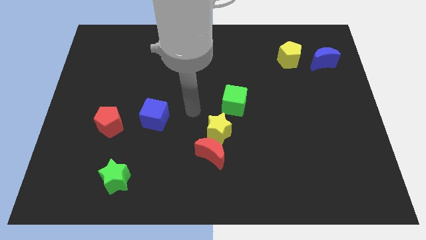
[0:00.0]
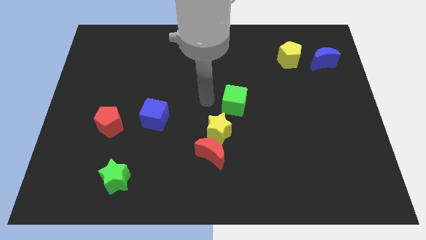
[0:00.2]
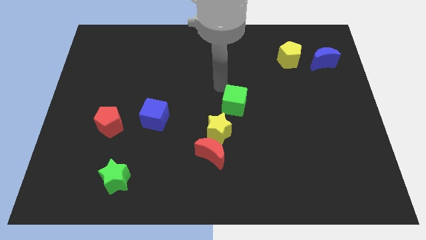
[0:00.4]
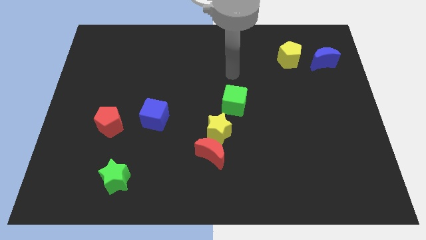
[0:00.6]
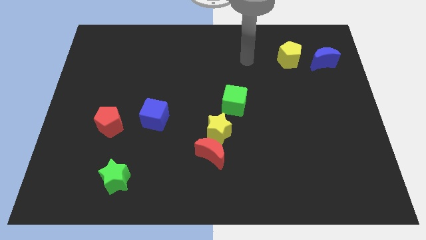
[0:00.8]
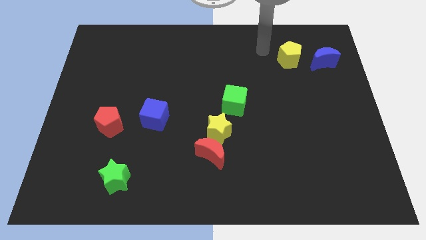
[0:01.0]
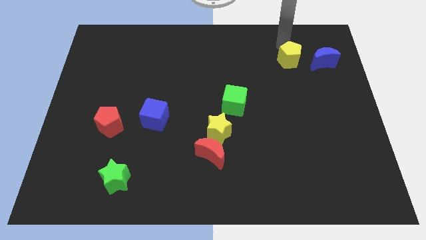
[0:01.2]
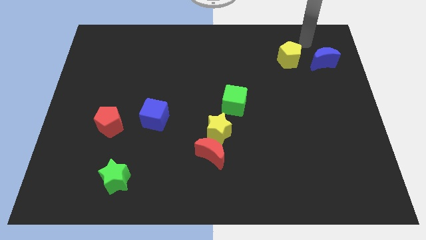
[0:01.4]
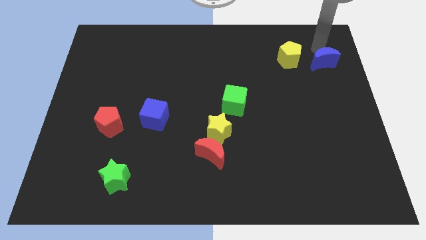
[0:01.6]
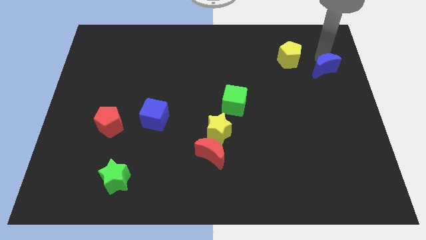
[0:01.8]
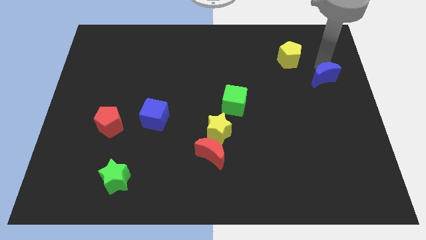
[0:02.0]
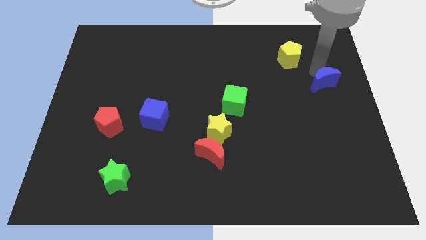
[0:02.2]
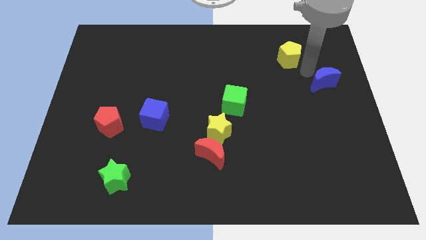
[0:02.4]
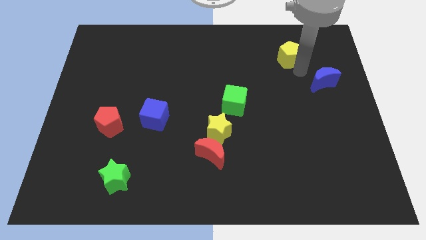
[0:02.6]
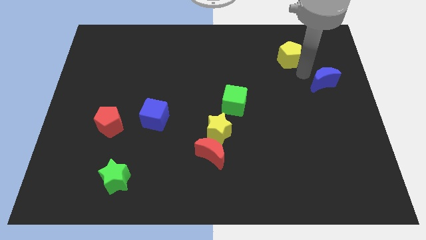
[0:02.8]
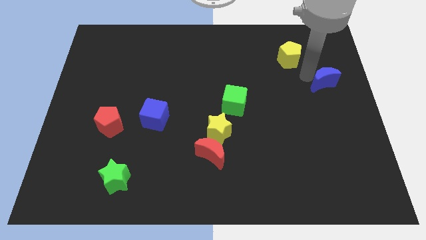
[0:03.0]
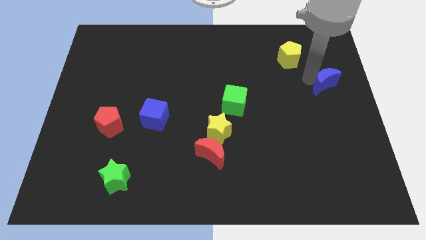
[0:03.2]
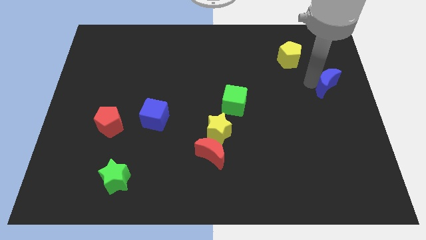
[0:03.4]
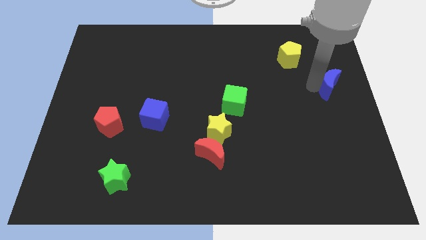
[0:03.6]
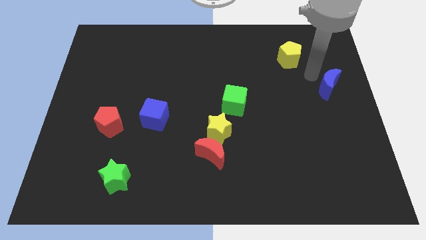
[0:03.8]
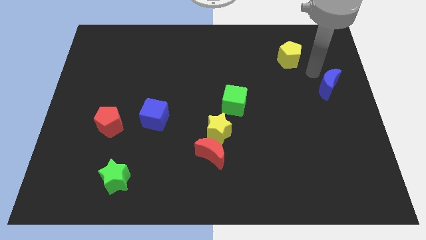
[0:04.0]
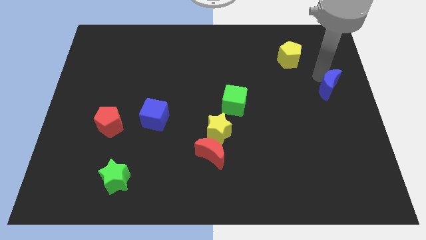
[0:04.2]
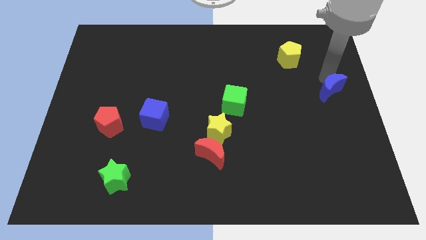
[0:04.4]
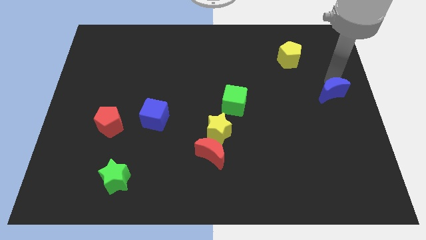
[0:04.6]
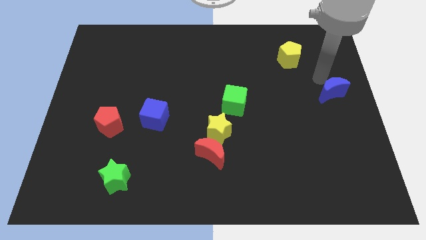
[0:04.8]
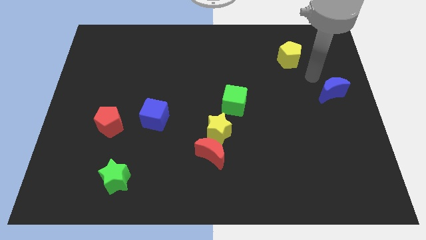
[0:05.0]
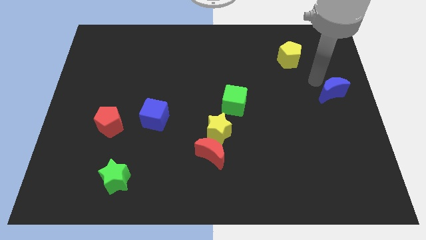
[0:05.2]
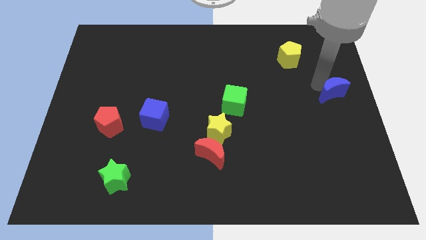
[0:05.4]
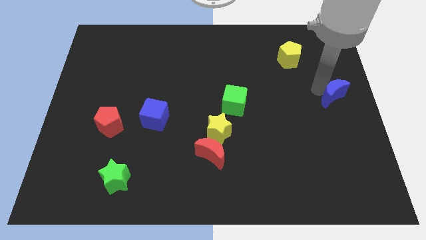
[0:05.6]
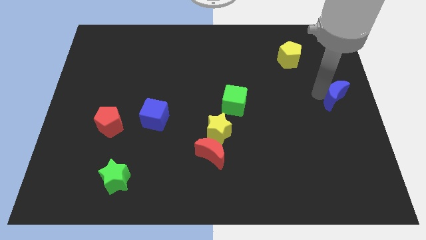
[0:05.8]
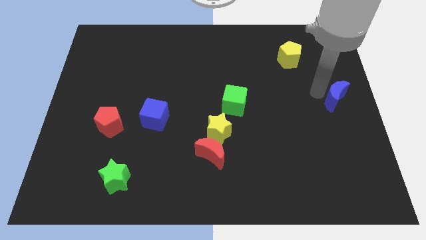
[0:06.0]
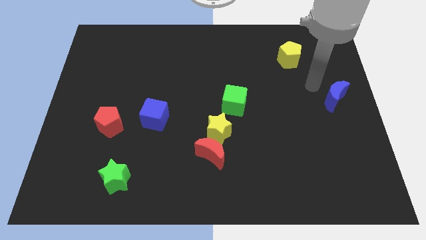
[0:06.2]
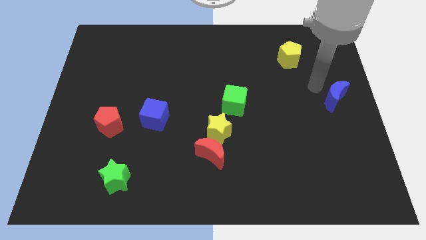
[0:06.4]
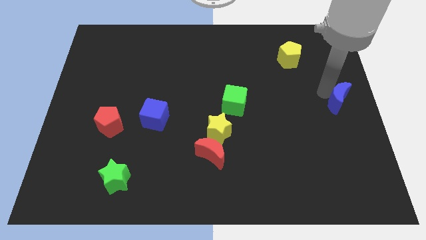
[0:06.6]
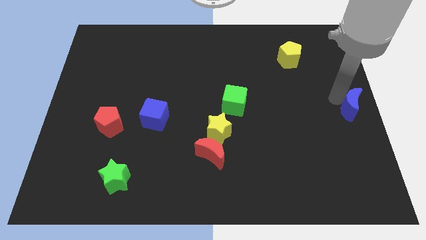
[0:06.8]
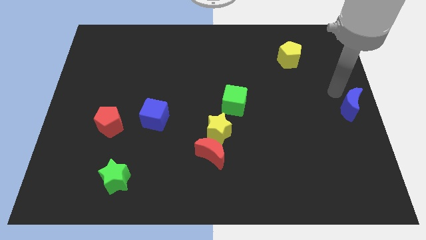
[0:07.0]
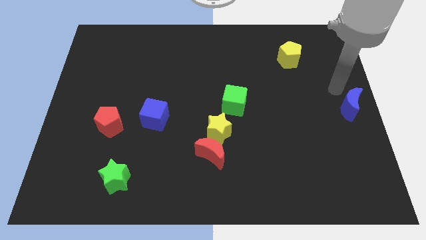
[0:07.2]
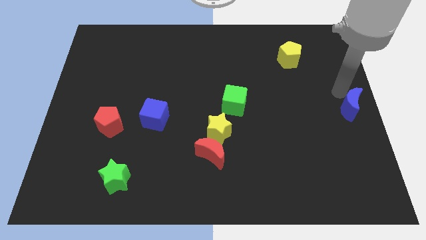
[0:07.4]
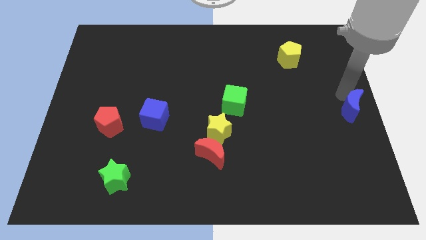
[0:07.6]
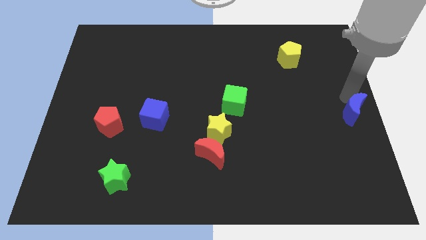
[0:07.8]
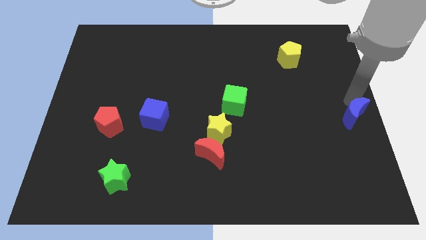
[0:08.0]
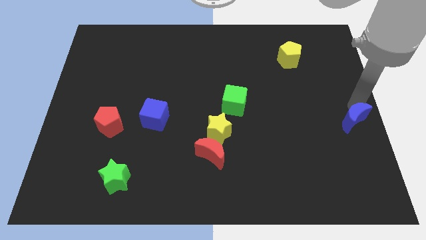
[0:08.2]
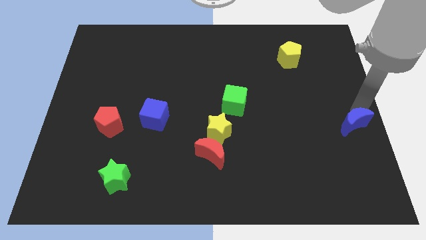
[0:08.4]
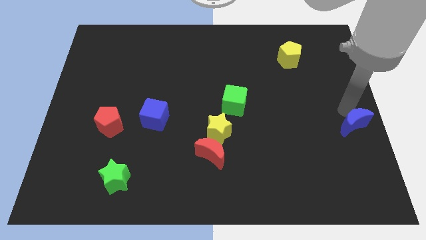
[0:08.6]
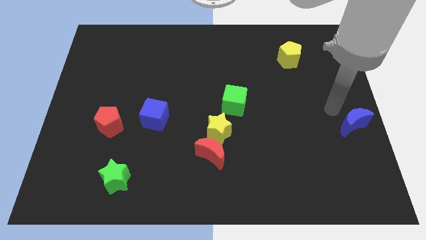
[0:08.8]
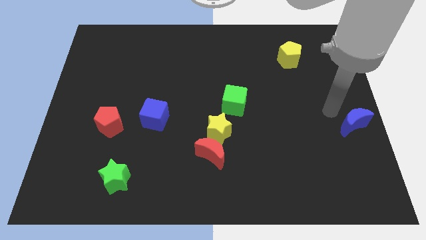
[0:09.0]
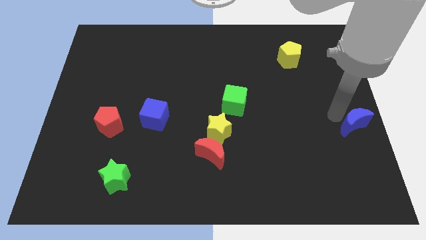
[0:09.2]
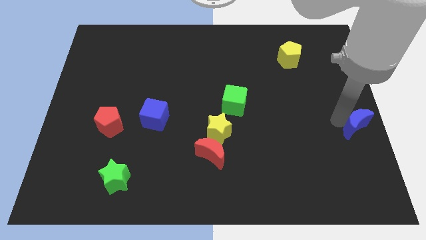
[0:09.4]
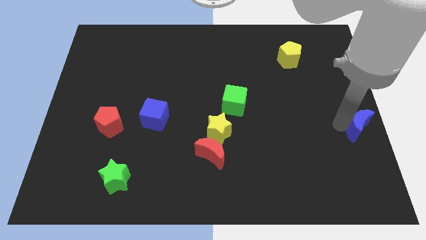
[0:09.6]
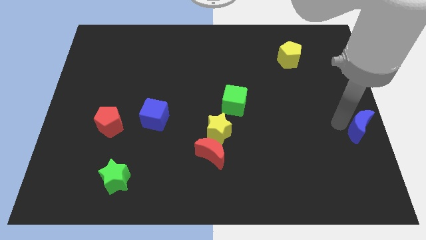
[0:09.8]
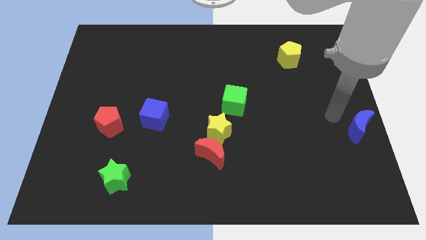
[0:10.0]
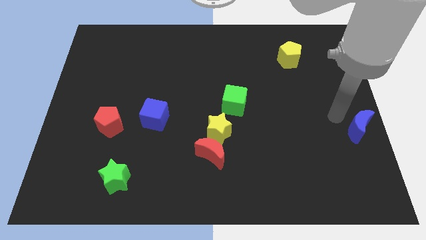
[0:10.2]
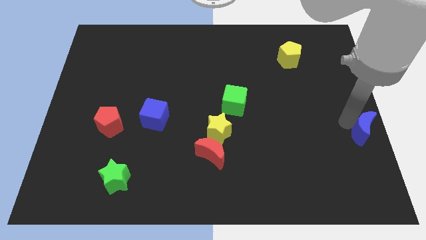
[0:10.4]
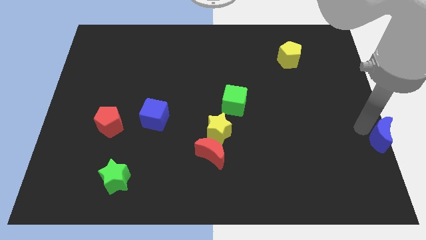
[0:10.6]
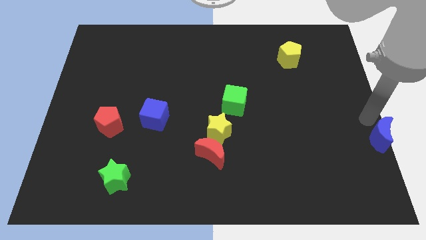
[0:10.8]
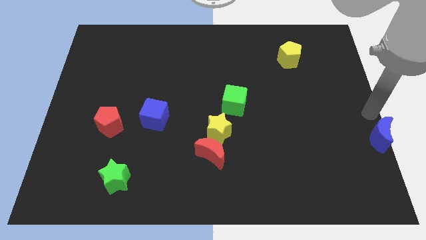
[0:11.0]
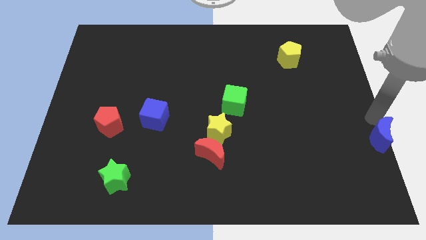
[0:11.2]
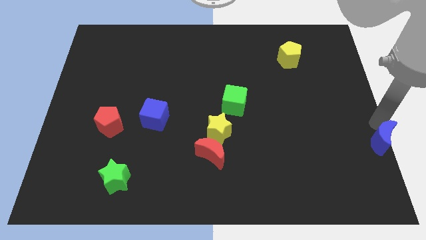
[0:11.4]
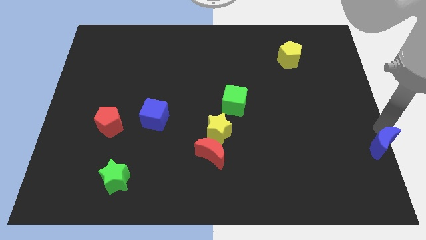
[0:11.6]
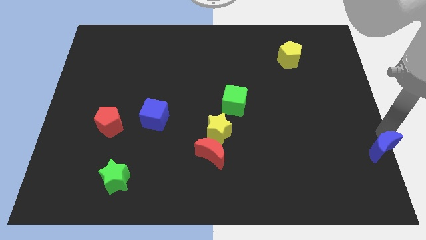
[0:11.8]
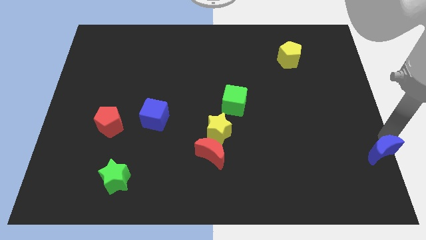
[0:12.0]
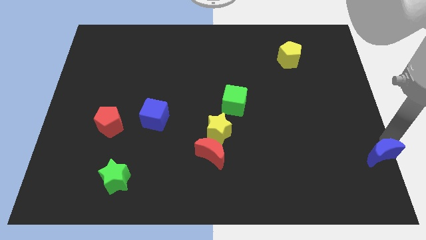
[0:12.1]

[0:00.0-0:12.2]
put the blue moon to the lower right corner
